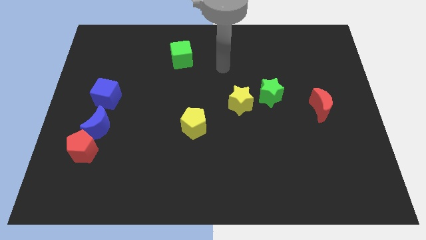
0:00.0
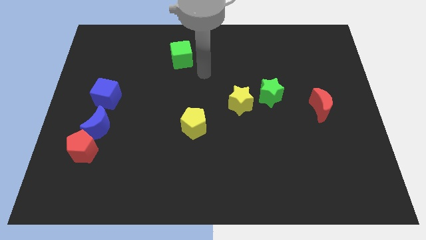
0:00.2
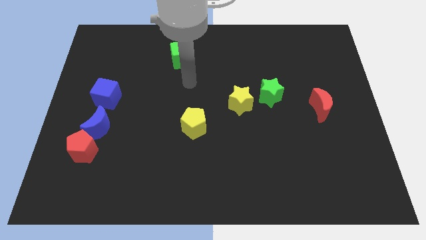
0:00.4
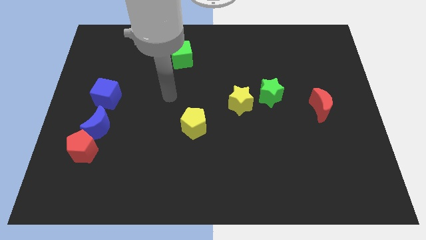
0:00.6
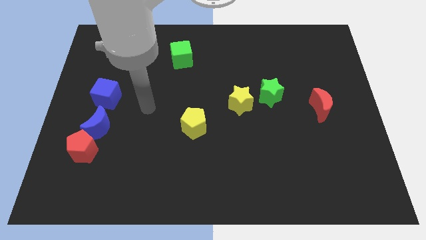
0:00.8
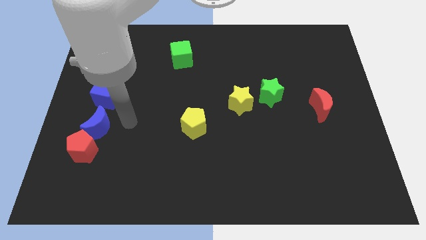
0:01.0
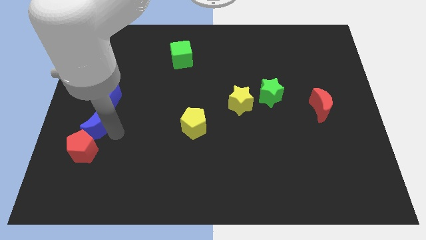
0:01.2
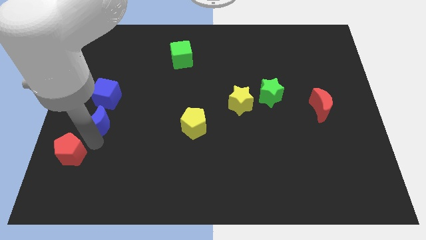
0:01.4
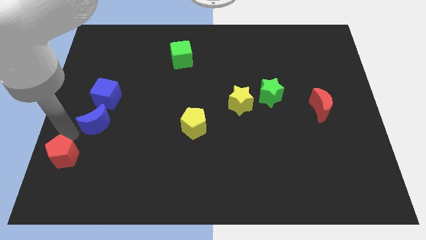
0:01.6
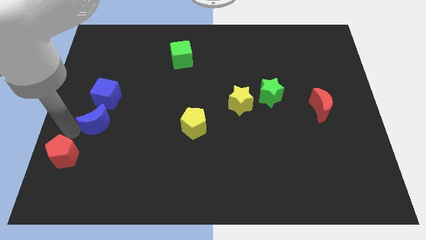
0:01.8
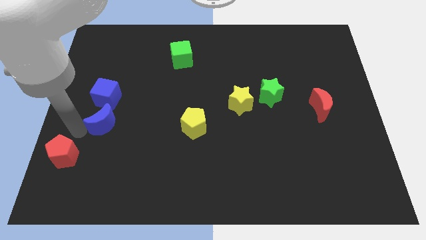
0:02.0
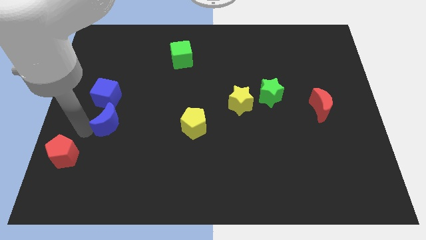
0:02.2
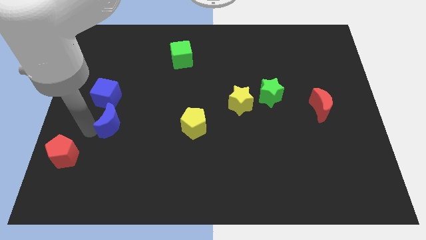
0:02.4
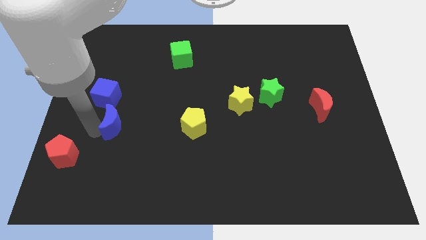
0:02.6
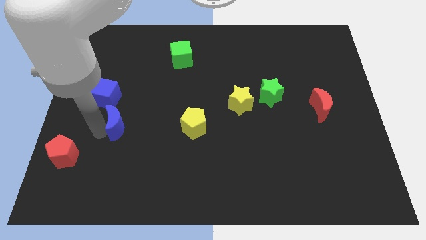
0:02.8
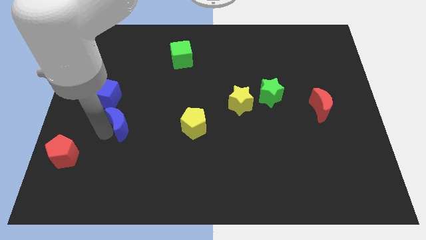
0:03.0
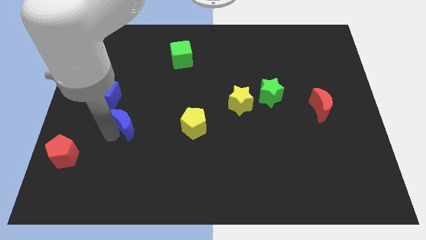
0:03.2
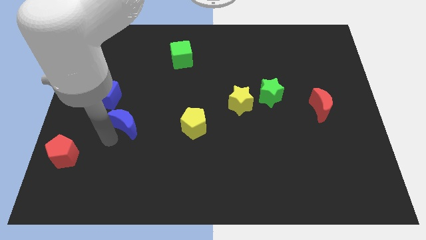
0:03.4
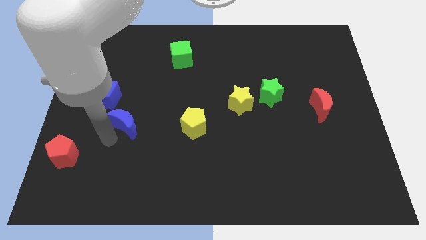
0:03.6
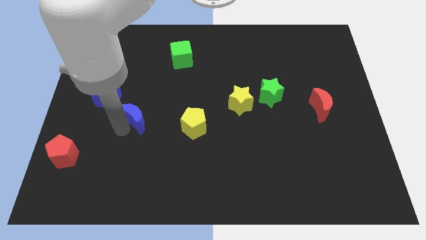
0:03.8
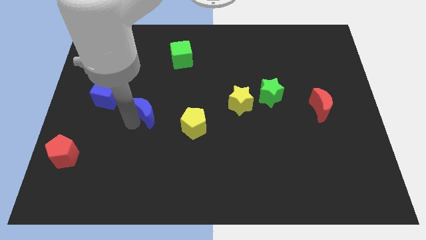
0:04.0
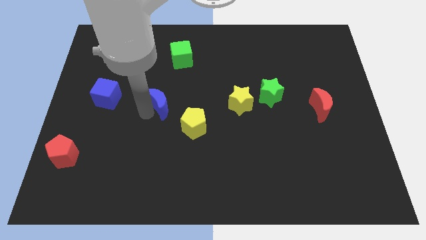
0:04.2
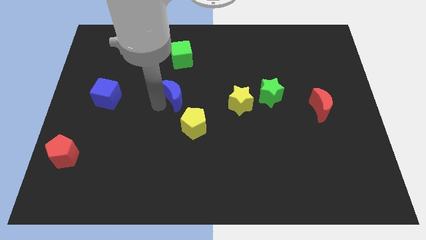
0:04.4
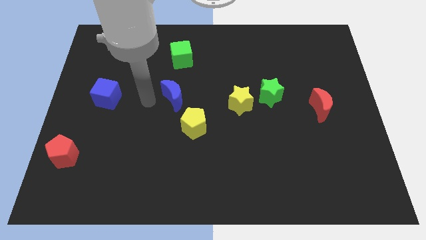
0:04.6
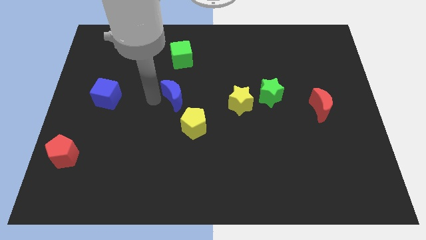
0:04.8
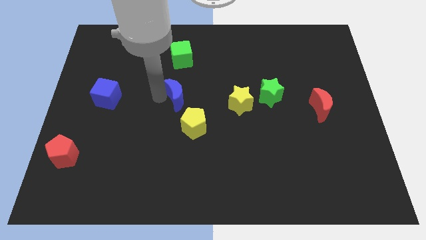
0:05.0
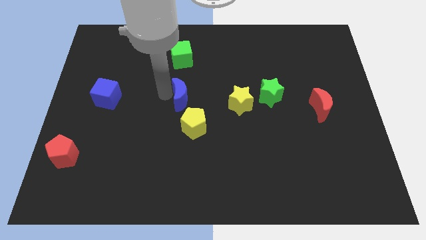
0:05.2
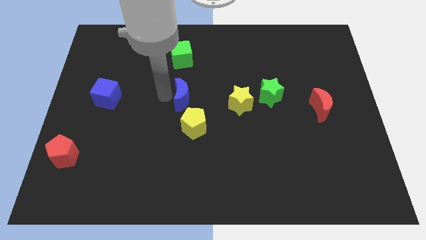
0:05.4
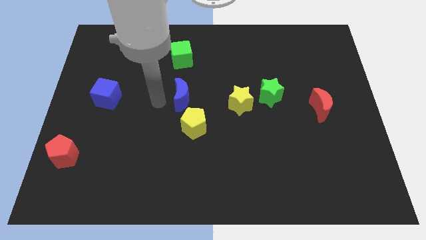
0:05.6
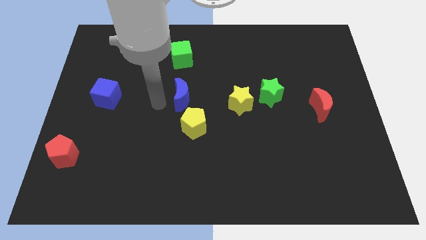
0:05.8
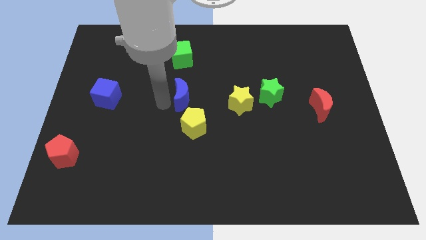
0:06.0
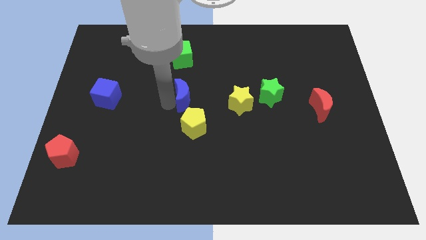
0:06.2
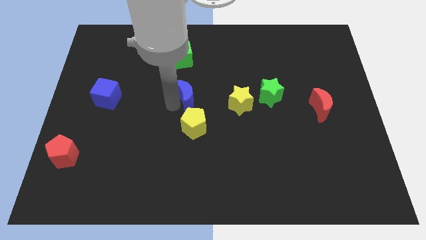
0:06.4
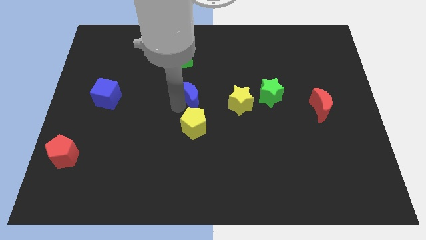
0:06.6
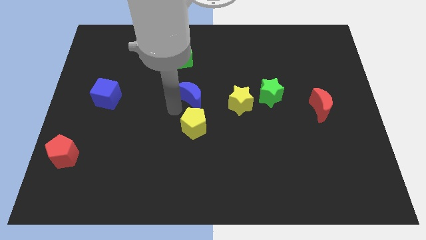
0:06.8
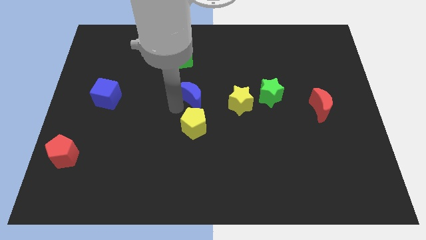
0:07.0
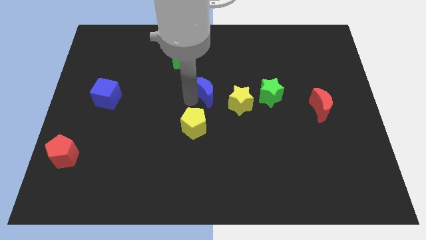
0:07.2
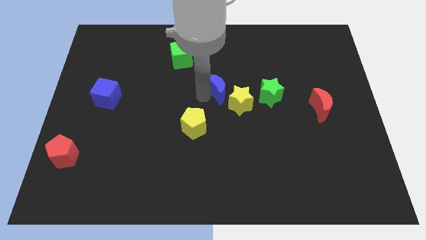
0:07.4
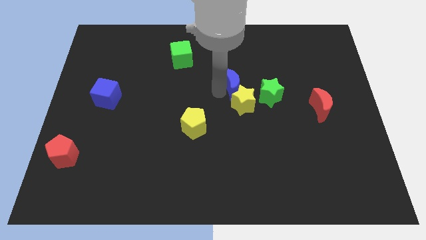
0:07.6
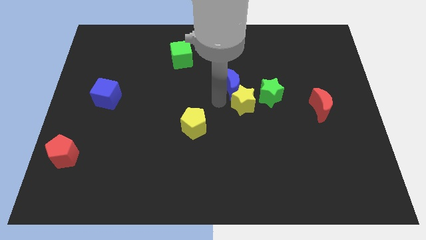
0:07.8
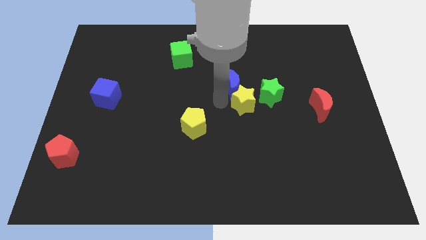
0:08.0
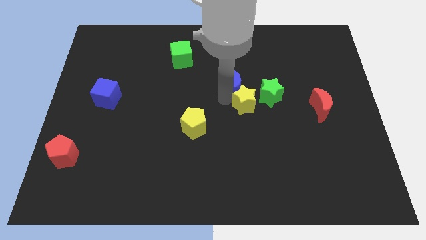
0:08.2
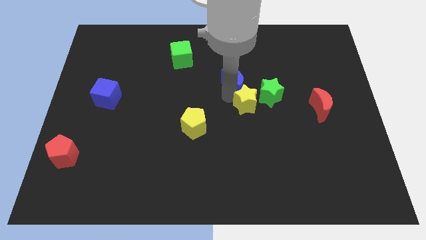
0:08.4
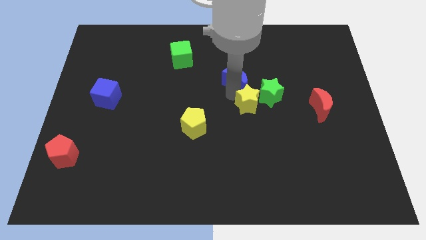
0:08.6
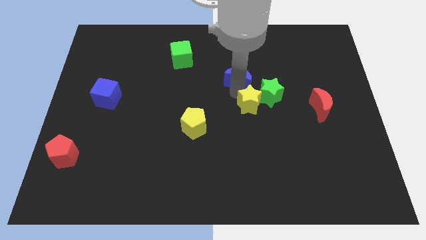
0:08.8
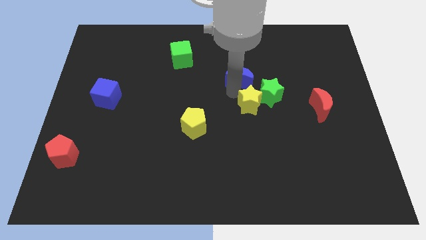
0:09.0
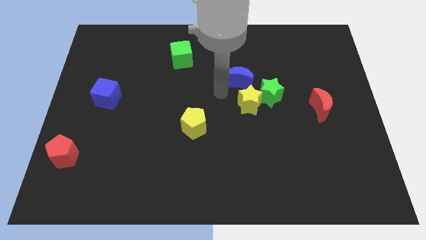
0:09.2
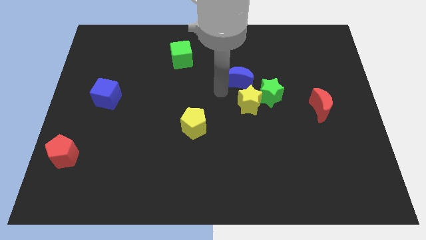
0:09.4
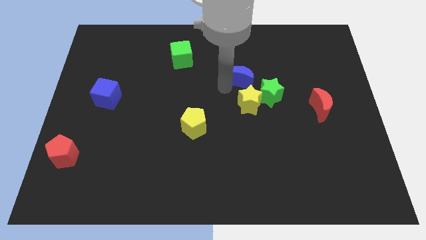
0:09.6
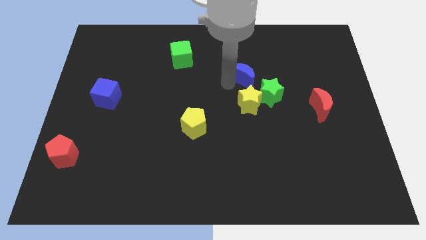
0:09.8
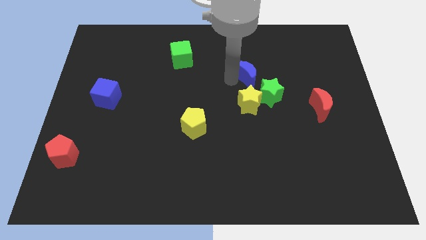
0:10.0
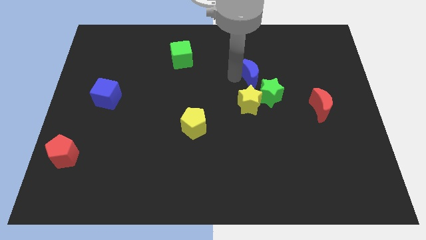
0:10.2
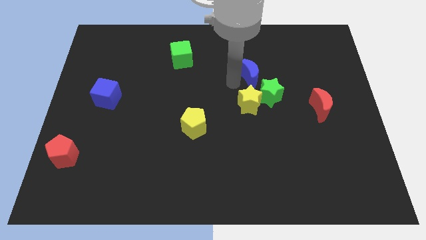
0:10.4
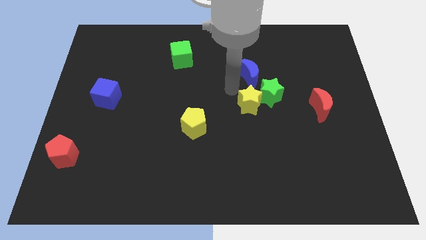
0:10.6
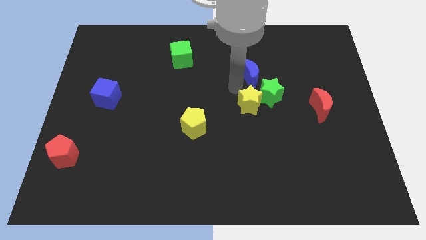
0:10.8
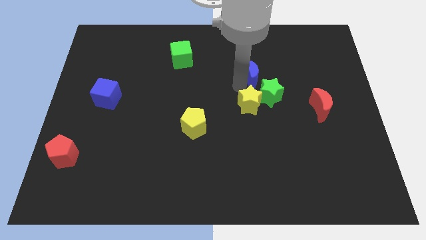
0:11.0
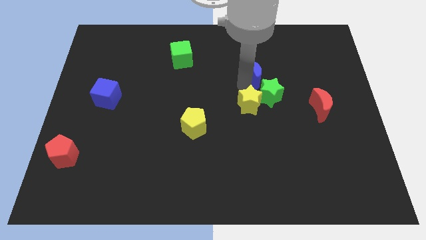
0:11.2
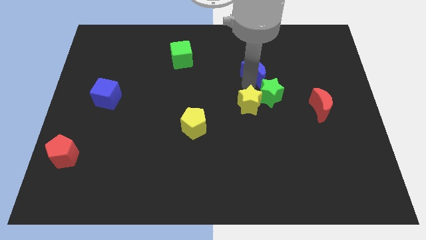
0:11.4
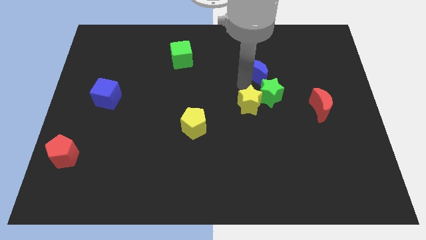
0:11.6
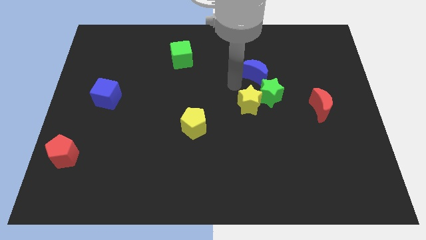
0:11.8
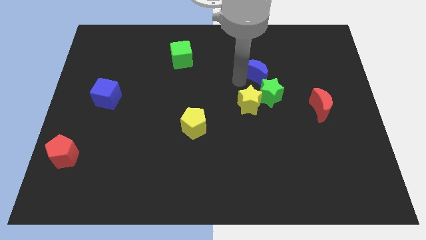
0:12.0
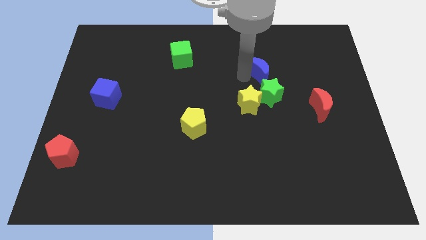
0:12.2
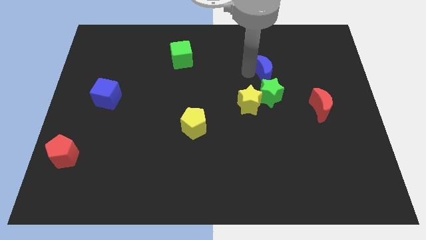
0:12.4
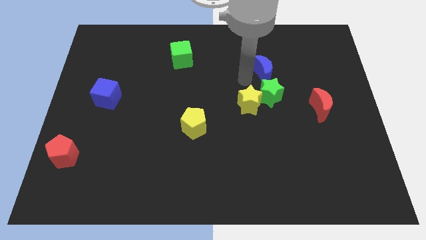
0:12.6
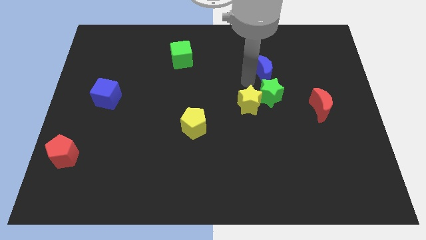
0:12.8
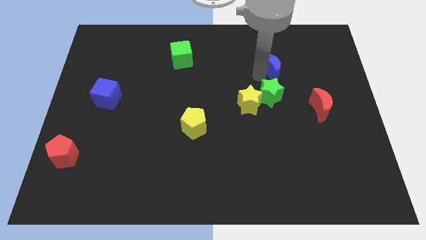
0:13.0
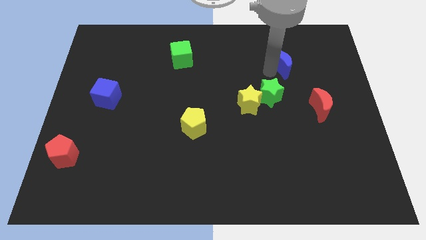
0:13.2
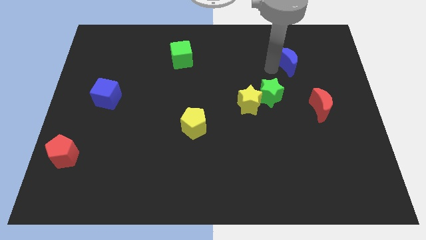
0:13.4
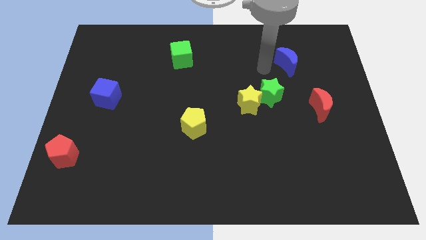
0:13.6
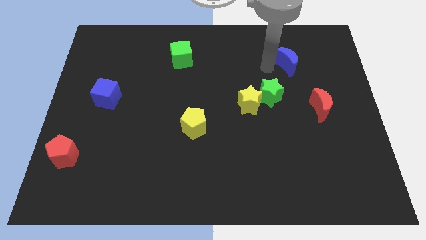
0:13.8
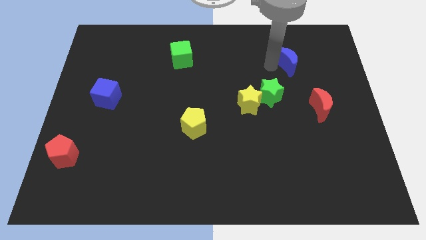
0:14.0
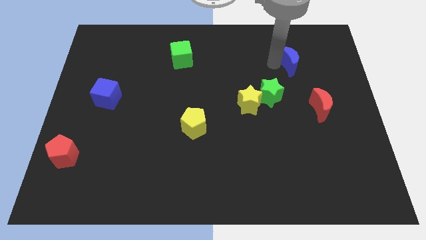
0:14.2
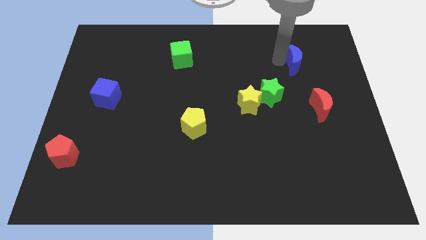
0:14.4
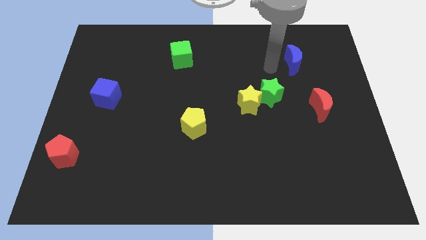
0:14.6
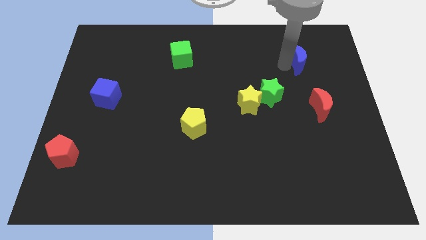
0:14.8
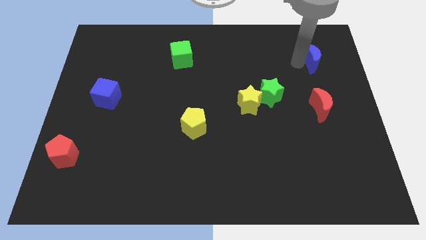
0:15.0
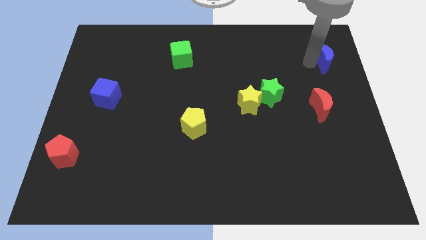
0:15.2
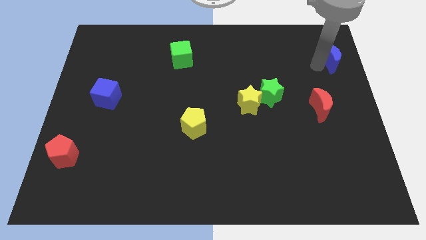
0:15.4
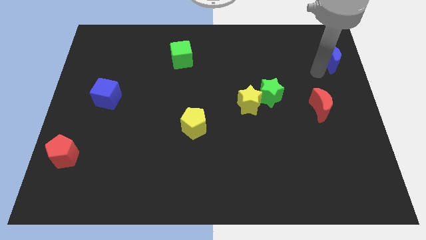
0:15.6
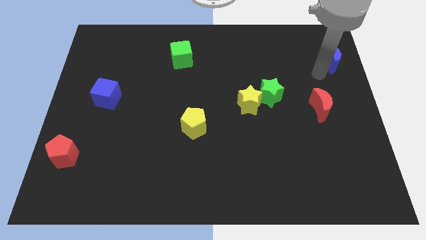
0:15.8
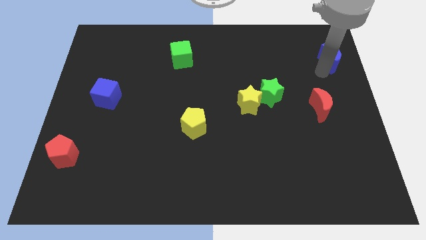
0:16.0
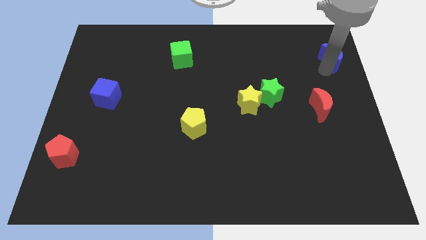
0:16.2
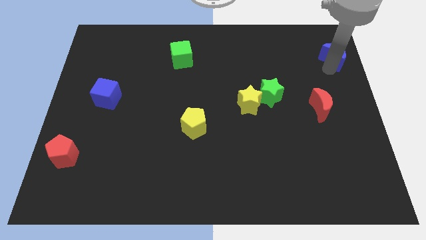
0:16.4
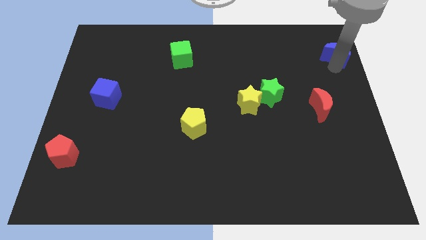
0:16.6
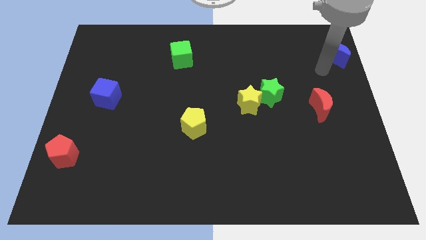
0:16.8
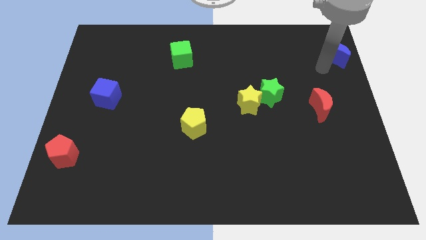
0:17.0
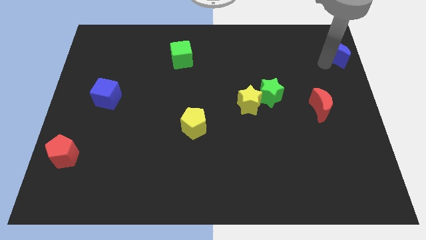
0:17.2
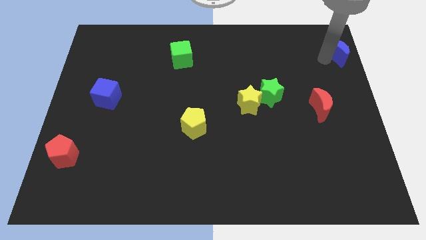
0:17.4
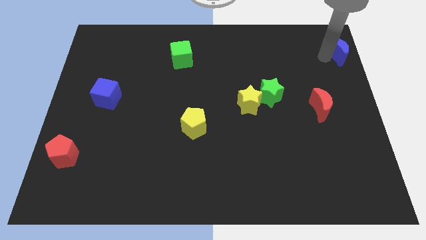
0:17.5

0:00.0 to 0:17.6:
slide the blue moon to the top right
